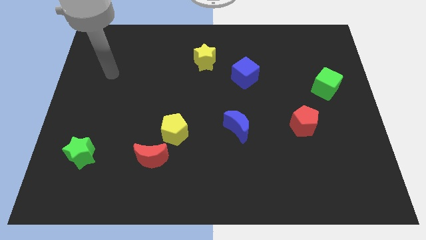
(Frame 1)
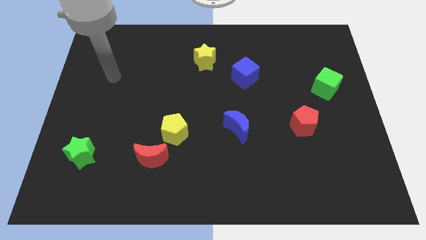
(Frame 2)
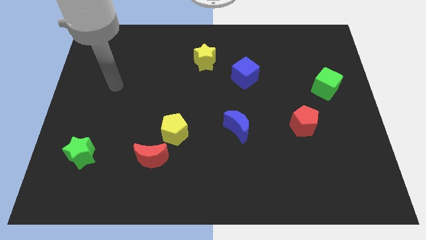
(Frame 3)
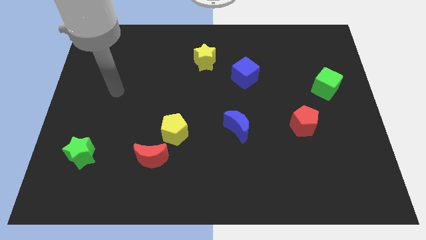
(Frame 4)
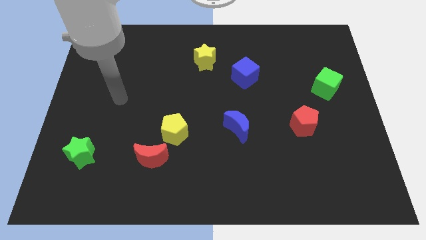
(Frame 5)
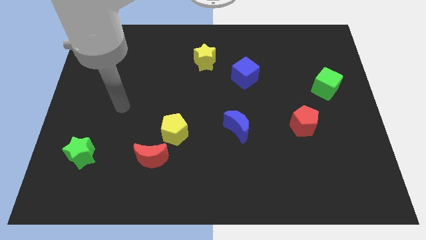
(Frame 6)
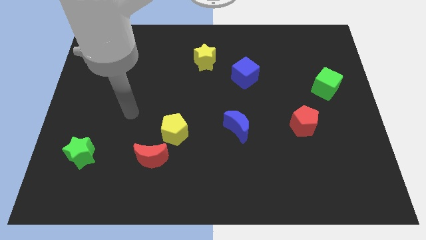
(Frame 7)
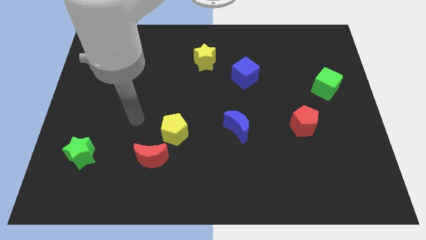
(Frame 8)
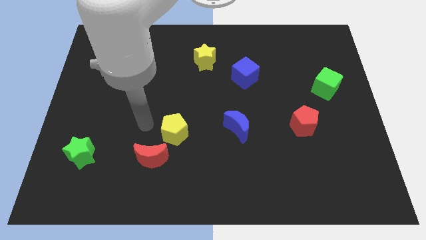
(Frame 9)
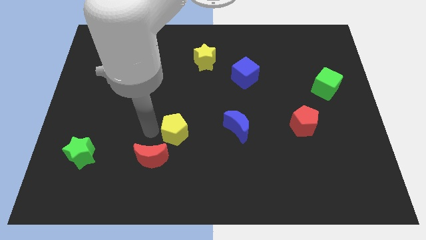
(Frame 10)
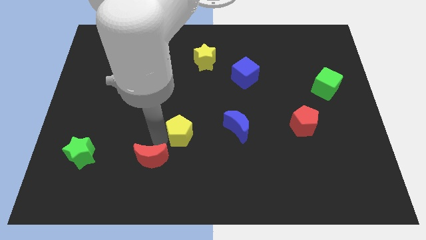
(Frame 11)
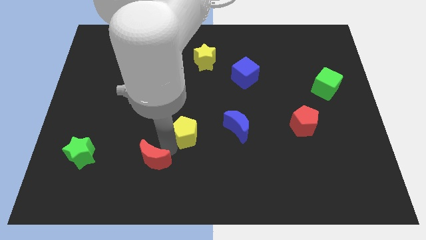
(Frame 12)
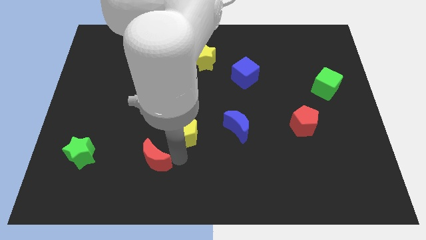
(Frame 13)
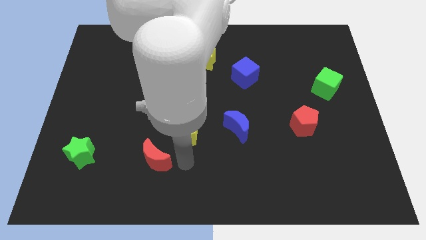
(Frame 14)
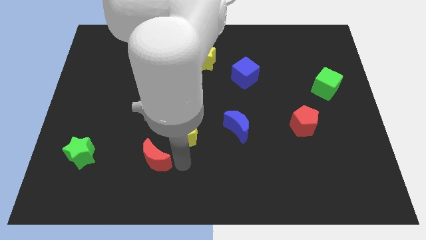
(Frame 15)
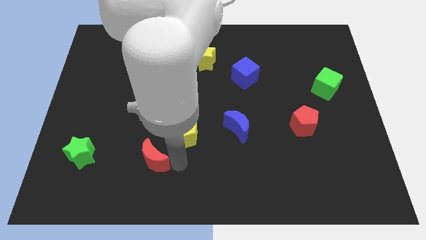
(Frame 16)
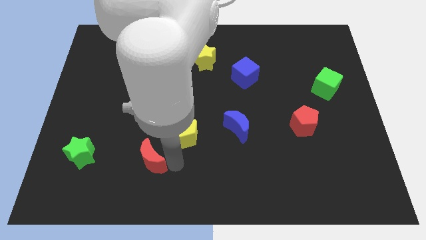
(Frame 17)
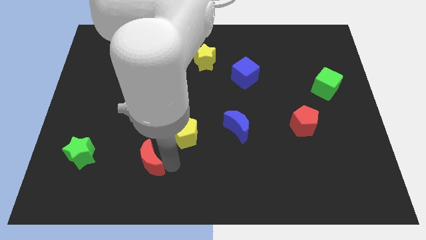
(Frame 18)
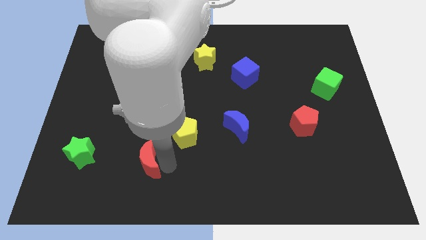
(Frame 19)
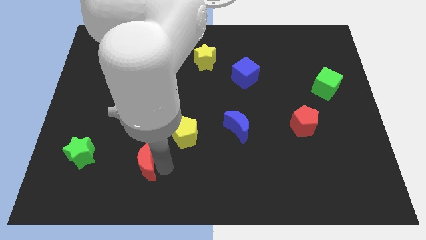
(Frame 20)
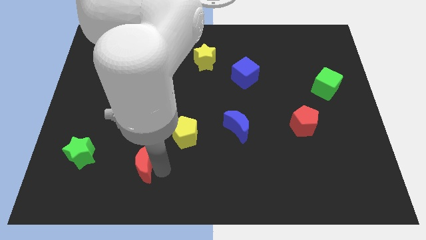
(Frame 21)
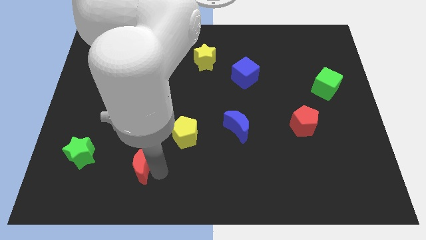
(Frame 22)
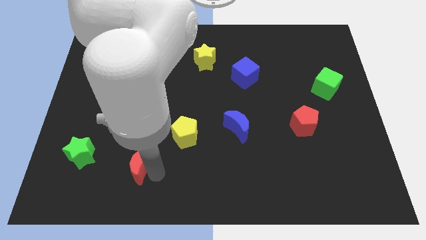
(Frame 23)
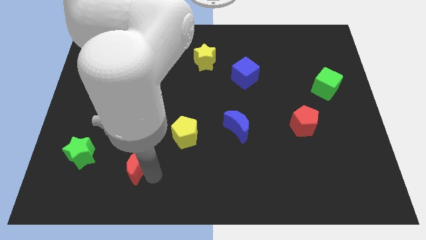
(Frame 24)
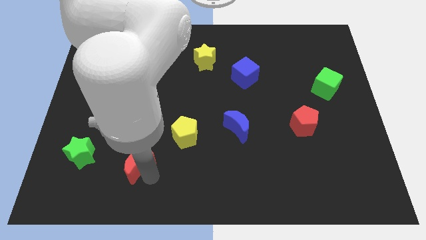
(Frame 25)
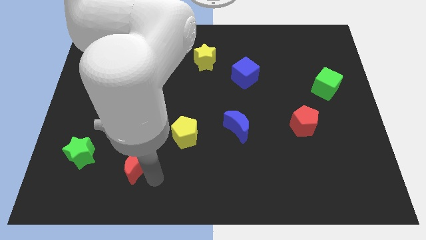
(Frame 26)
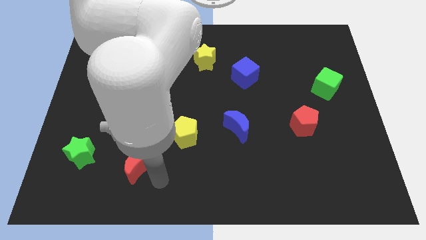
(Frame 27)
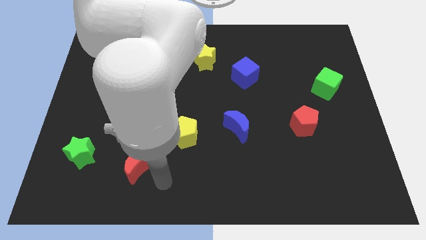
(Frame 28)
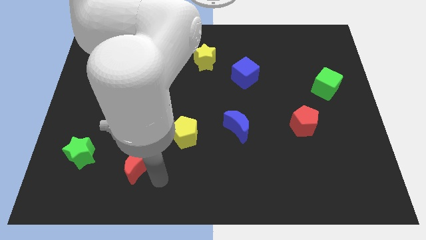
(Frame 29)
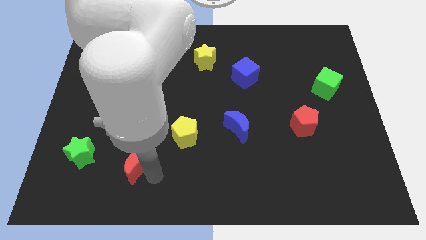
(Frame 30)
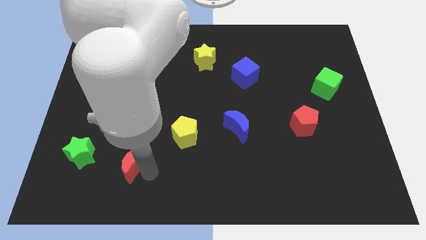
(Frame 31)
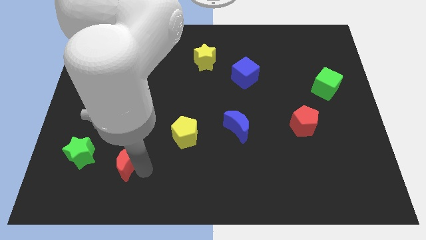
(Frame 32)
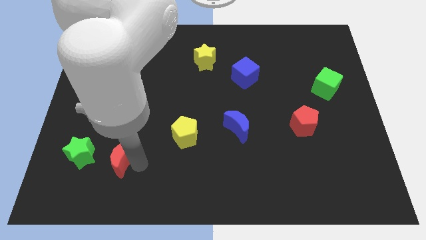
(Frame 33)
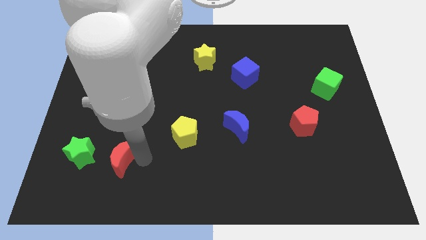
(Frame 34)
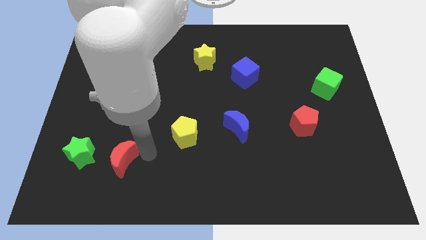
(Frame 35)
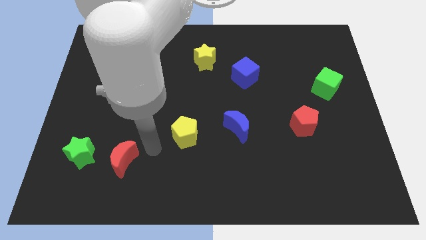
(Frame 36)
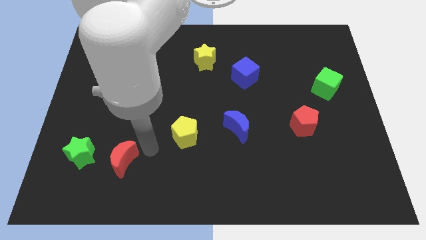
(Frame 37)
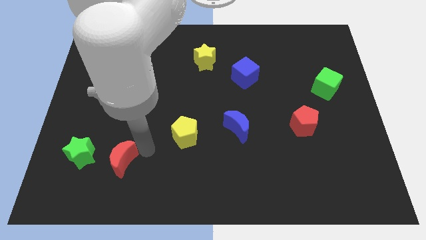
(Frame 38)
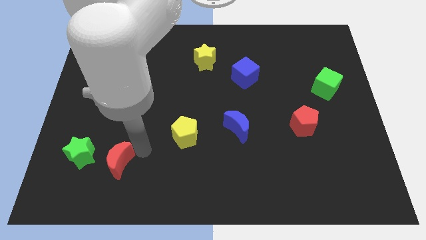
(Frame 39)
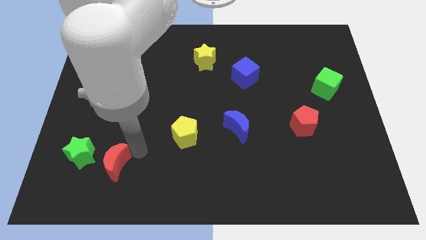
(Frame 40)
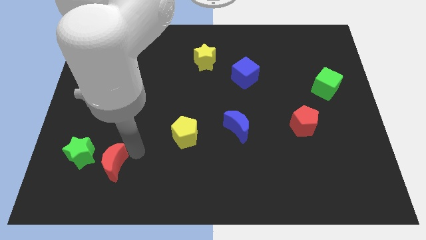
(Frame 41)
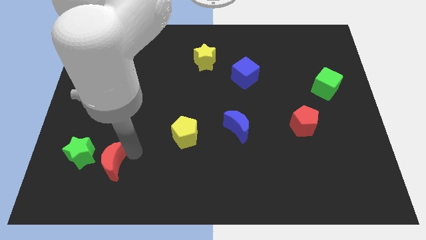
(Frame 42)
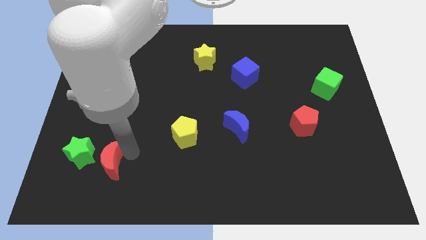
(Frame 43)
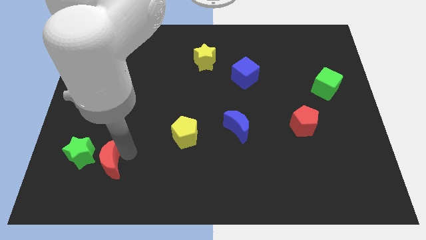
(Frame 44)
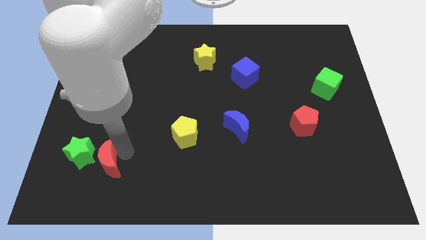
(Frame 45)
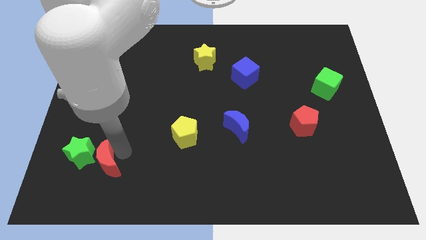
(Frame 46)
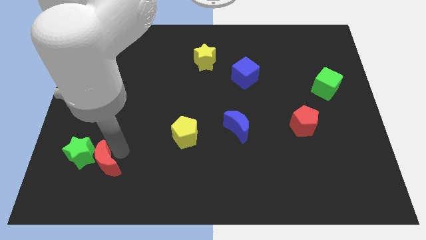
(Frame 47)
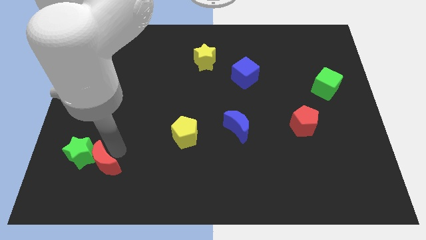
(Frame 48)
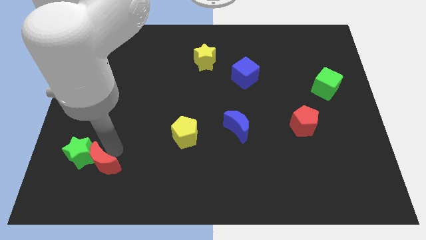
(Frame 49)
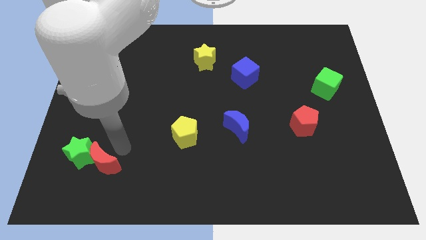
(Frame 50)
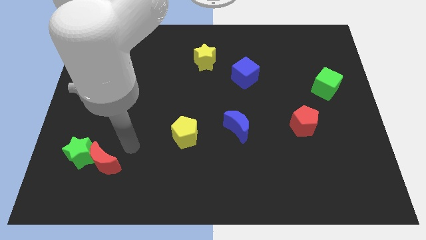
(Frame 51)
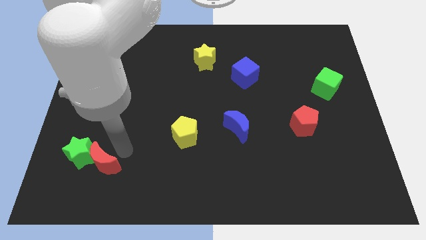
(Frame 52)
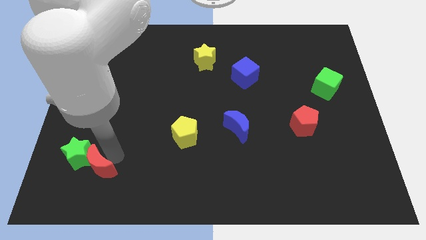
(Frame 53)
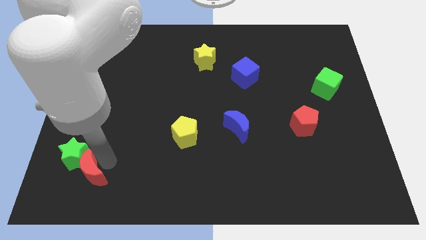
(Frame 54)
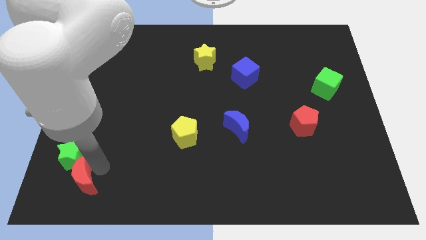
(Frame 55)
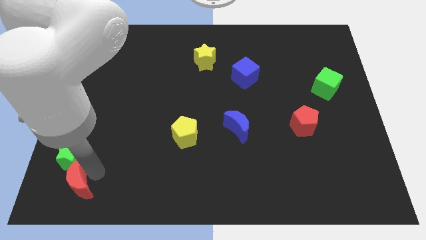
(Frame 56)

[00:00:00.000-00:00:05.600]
push the red moon to the bottom left
